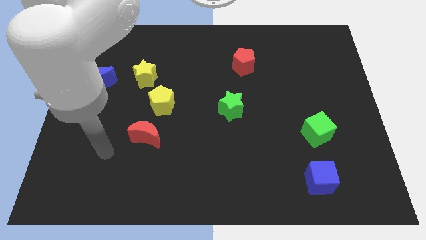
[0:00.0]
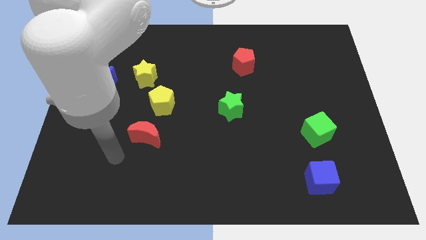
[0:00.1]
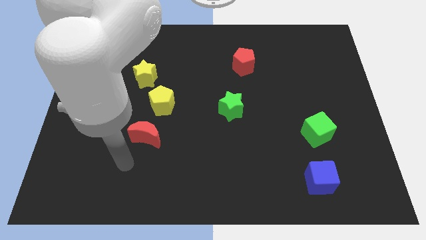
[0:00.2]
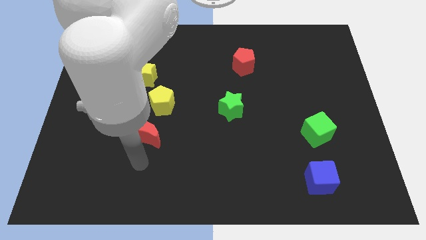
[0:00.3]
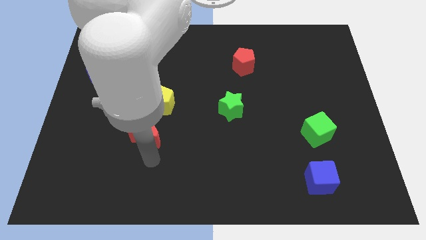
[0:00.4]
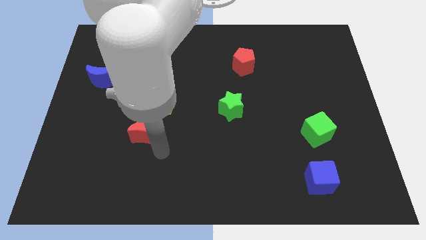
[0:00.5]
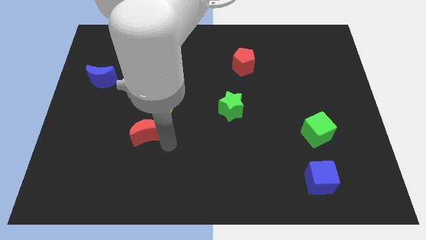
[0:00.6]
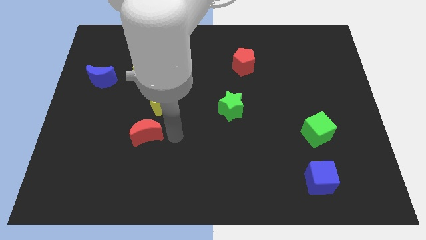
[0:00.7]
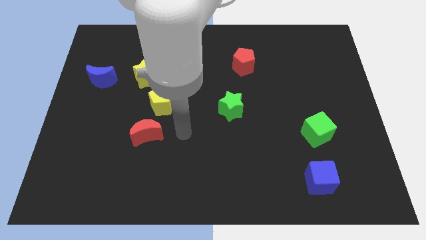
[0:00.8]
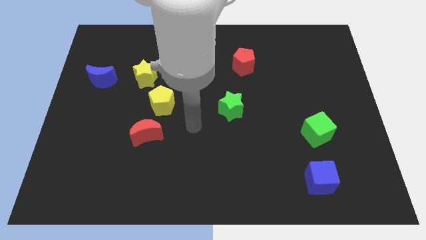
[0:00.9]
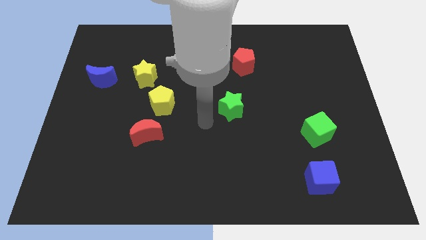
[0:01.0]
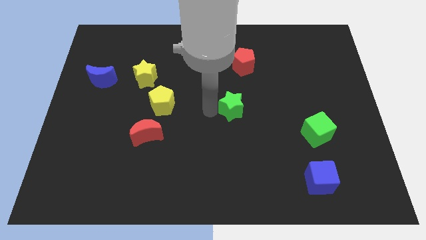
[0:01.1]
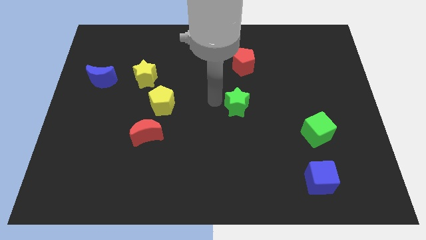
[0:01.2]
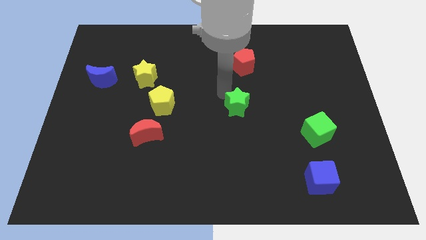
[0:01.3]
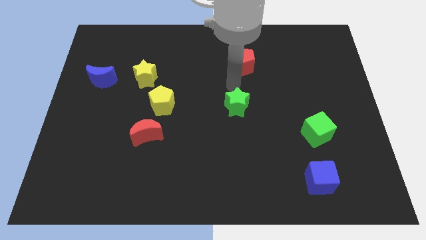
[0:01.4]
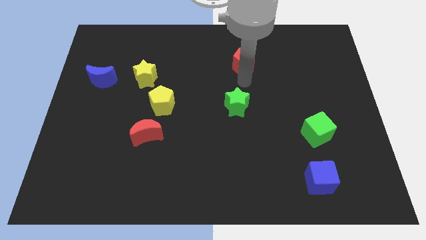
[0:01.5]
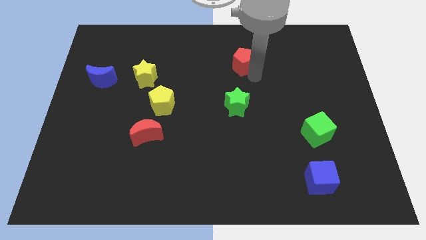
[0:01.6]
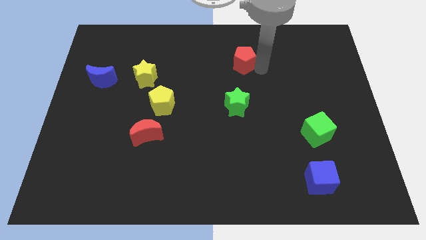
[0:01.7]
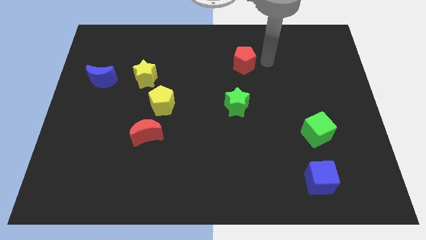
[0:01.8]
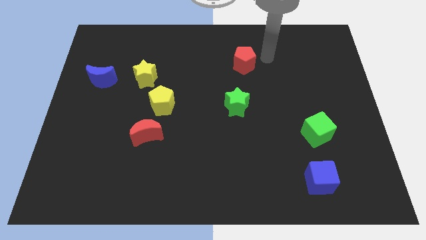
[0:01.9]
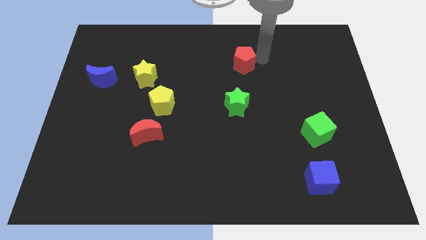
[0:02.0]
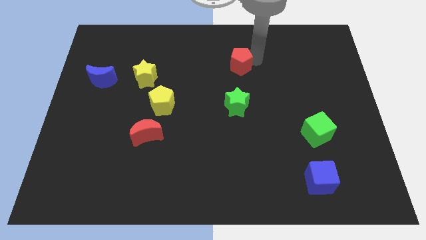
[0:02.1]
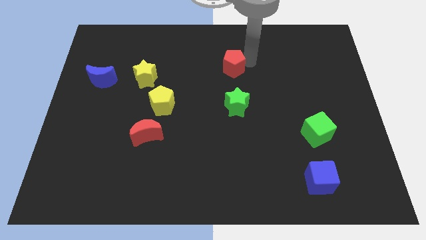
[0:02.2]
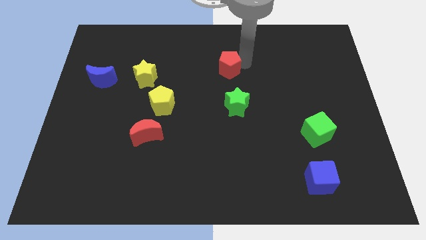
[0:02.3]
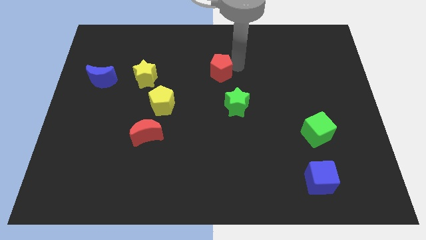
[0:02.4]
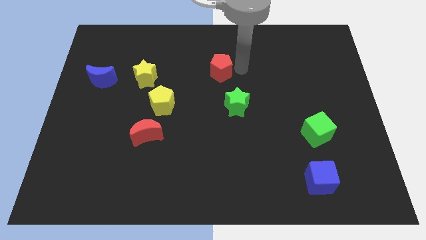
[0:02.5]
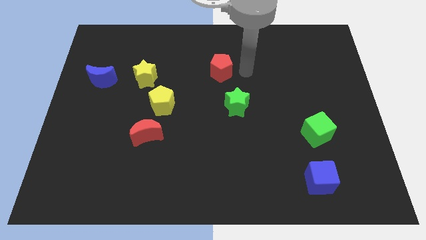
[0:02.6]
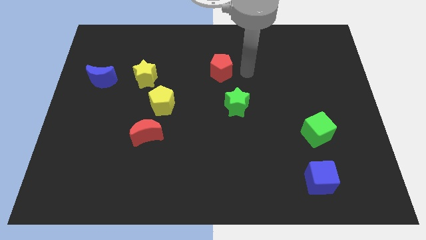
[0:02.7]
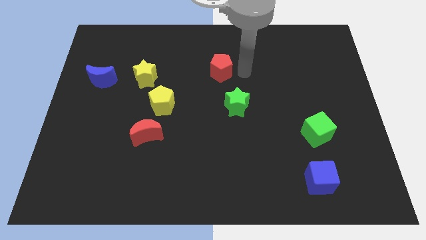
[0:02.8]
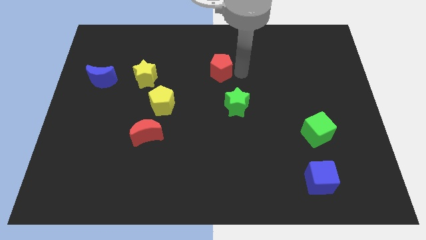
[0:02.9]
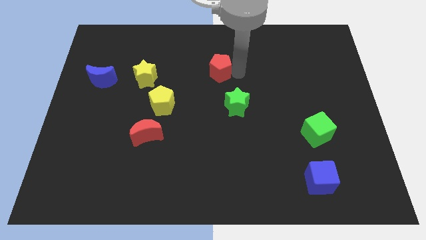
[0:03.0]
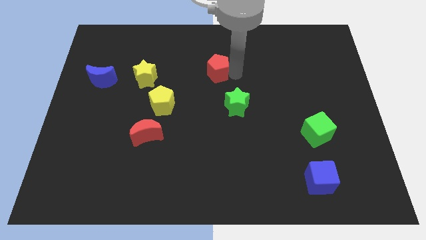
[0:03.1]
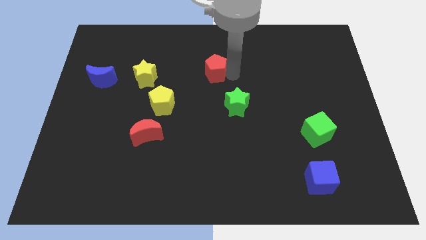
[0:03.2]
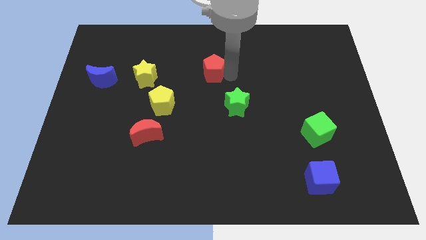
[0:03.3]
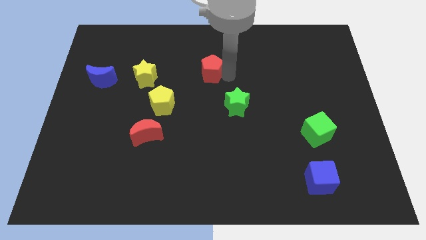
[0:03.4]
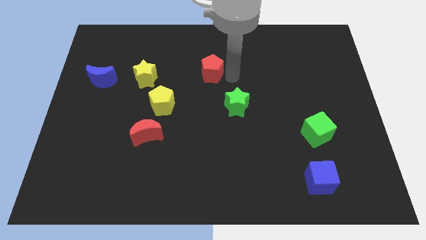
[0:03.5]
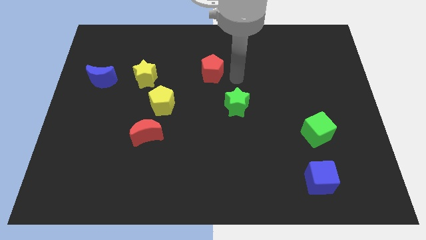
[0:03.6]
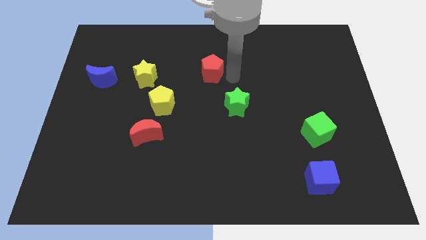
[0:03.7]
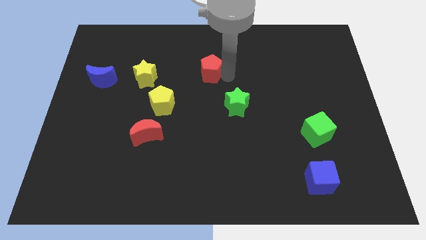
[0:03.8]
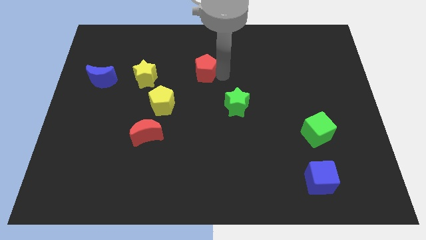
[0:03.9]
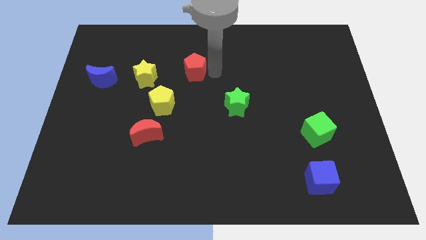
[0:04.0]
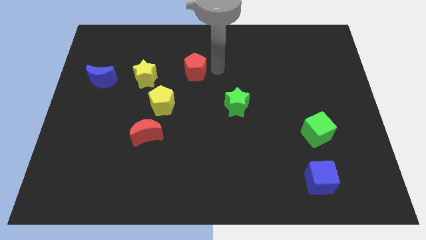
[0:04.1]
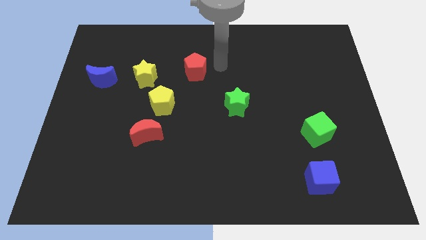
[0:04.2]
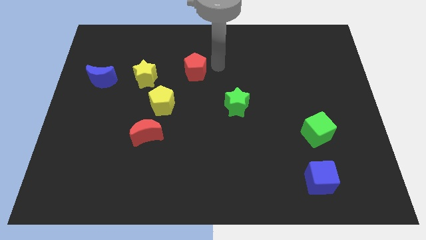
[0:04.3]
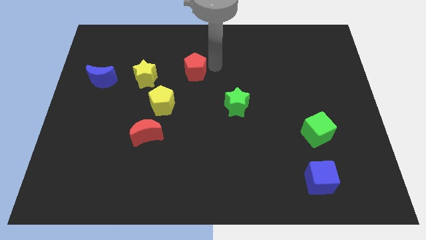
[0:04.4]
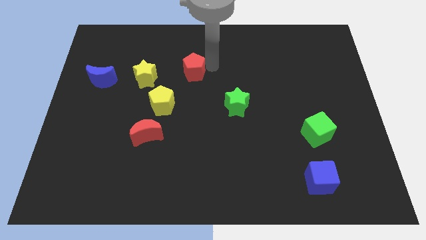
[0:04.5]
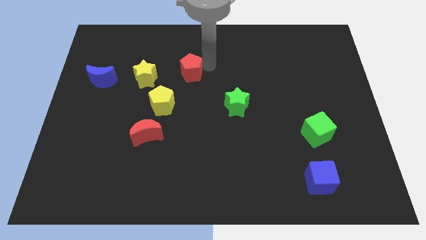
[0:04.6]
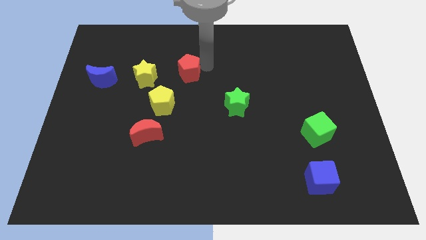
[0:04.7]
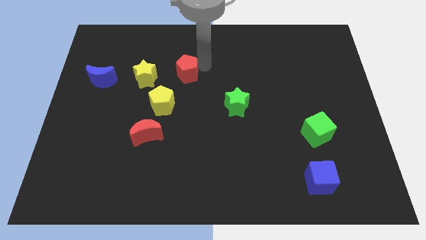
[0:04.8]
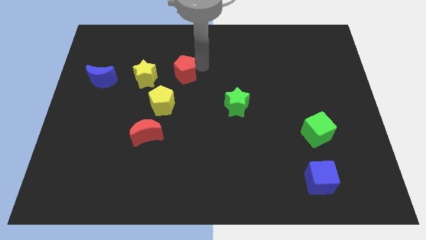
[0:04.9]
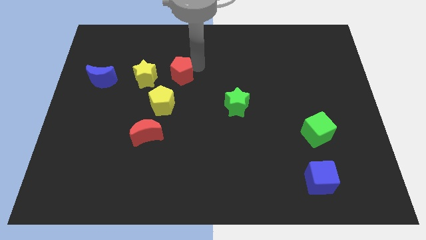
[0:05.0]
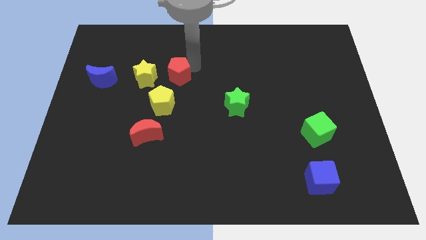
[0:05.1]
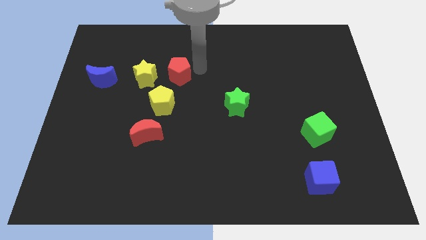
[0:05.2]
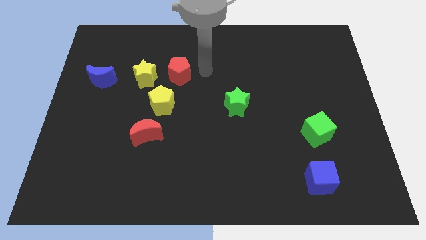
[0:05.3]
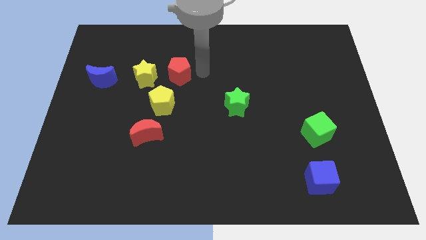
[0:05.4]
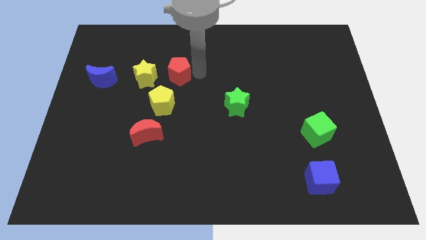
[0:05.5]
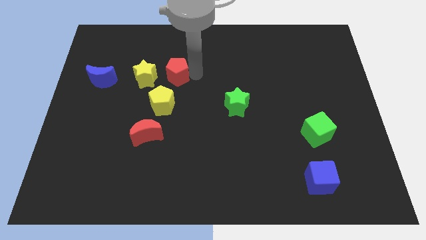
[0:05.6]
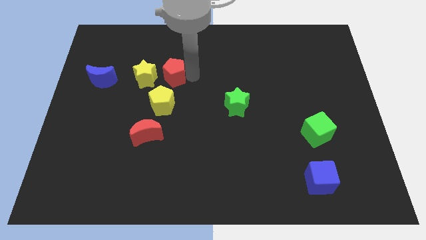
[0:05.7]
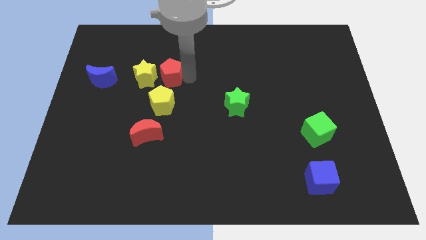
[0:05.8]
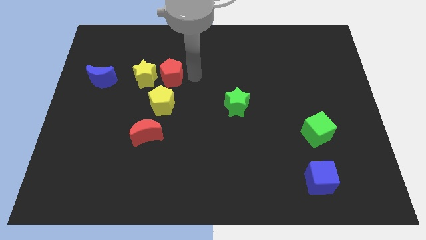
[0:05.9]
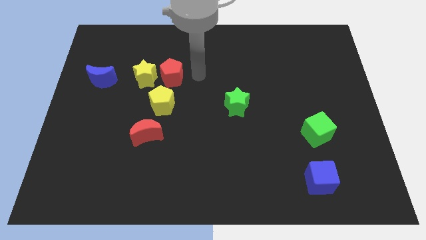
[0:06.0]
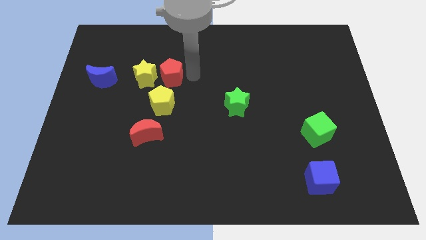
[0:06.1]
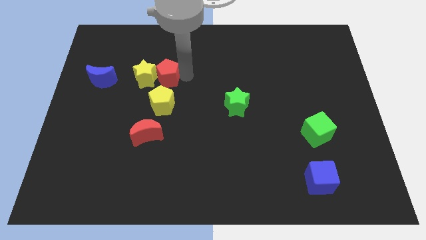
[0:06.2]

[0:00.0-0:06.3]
put the red pentagon to the yellow star

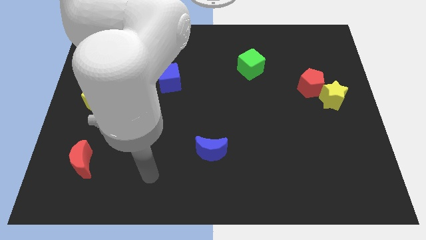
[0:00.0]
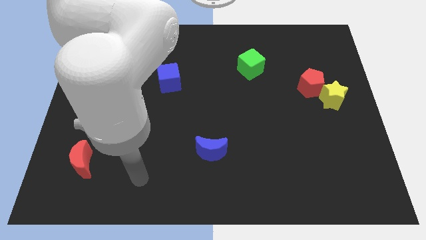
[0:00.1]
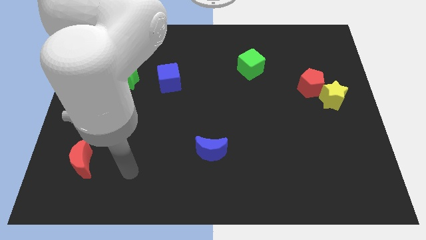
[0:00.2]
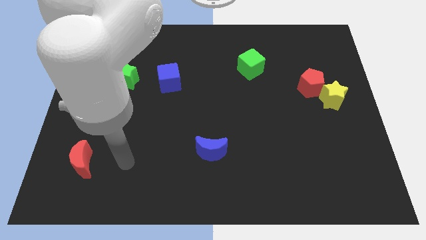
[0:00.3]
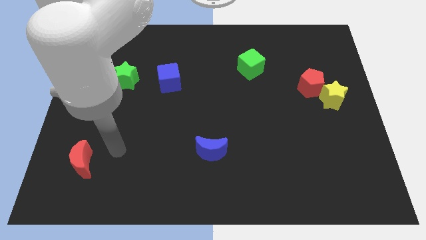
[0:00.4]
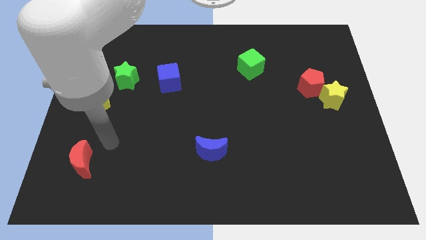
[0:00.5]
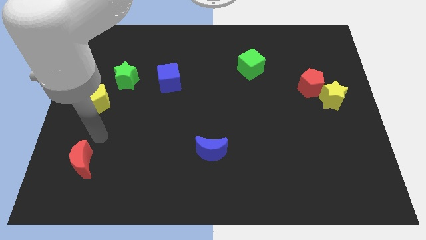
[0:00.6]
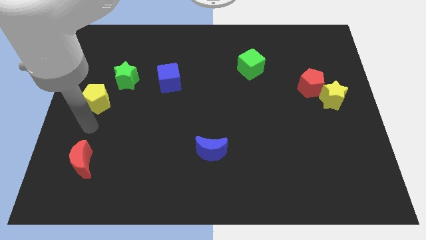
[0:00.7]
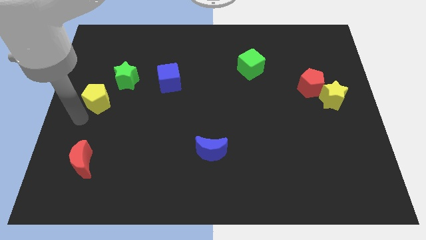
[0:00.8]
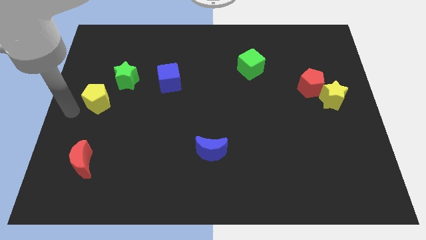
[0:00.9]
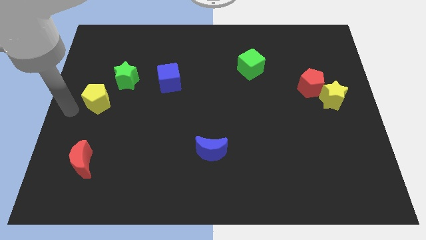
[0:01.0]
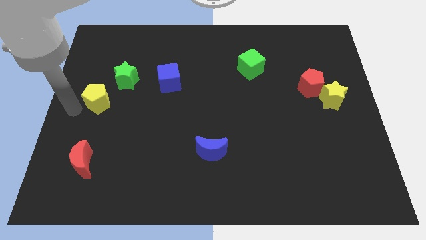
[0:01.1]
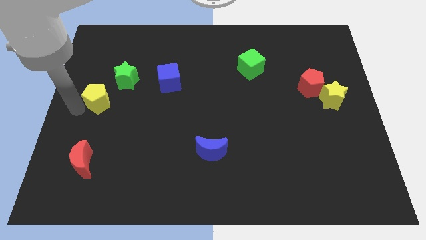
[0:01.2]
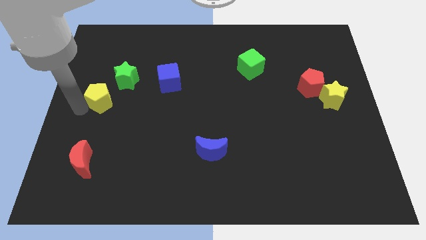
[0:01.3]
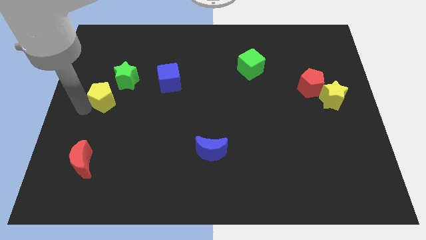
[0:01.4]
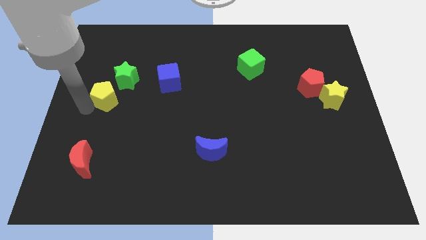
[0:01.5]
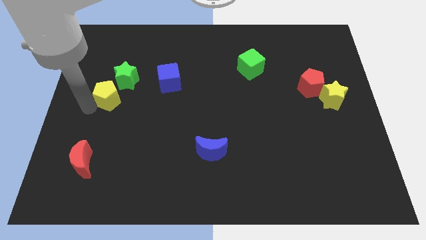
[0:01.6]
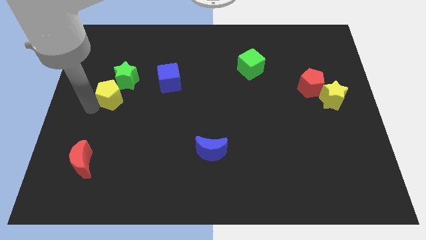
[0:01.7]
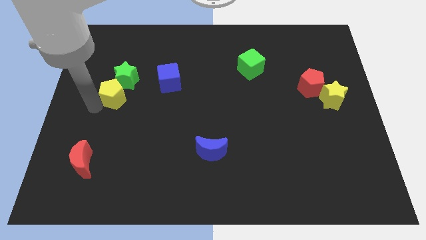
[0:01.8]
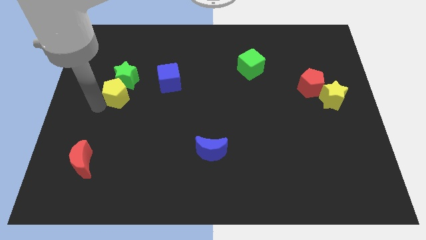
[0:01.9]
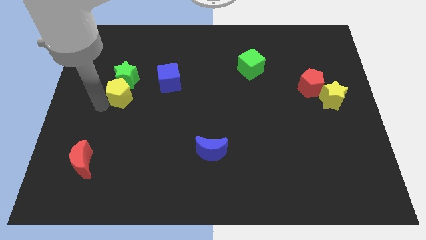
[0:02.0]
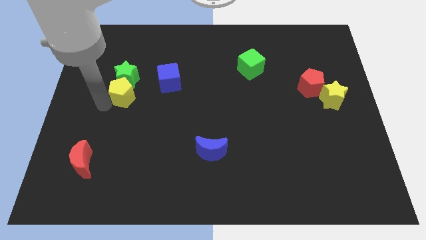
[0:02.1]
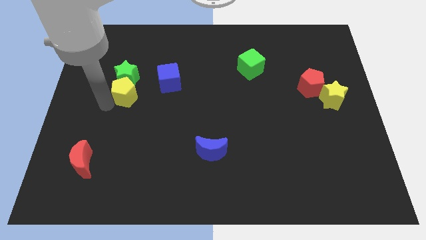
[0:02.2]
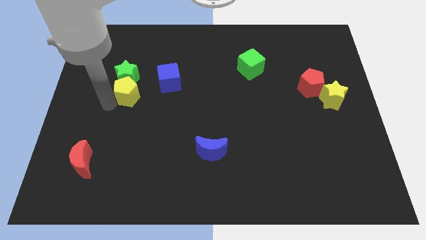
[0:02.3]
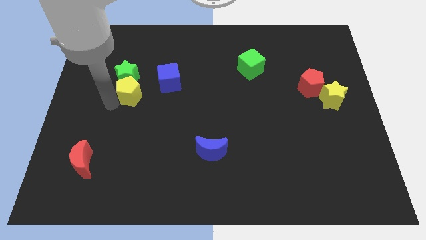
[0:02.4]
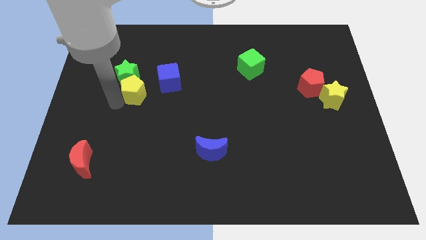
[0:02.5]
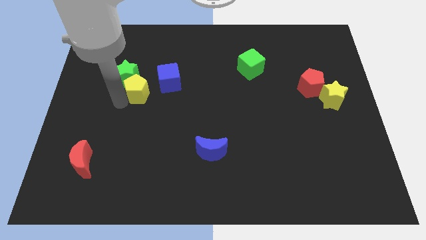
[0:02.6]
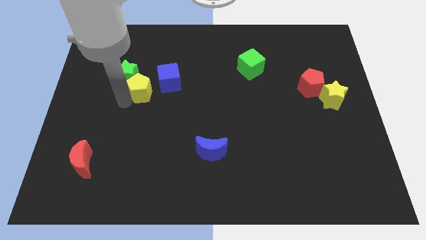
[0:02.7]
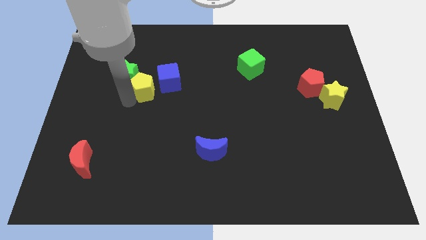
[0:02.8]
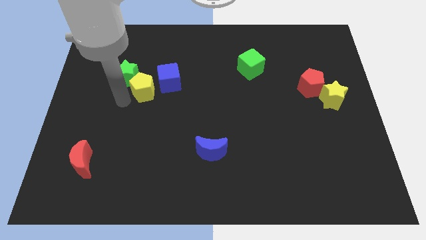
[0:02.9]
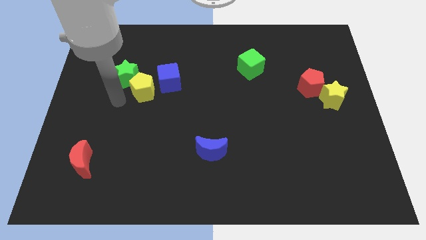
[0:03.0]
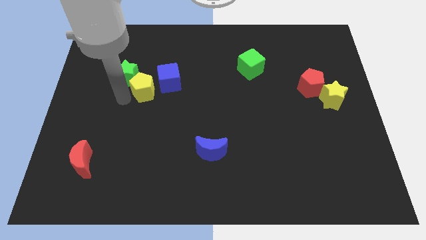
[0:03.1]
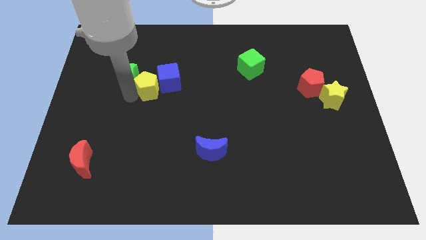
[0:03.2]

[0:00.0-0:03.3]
put the yellow pentagon towards the blue cube
